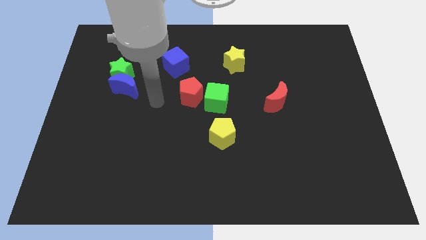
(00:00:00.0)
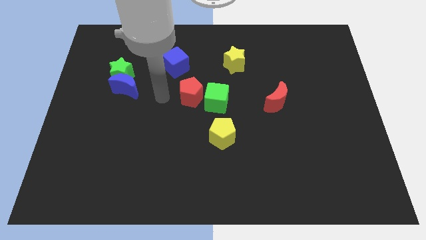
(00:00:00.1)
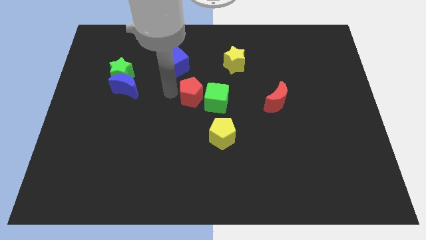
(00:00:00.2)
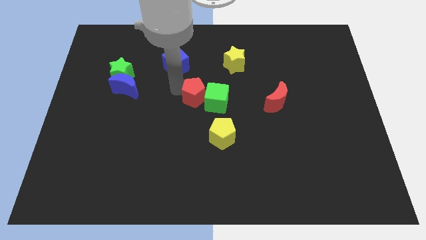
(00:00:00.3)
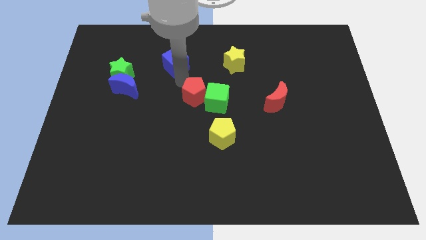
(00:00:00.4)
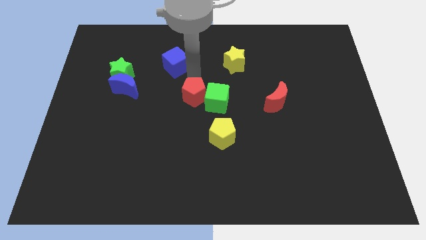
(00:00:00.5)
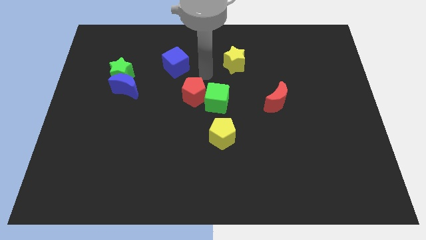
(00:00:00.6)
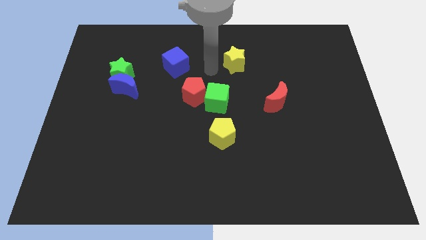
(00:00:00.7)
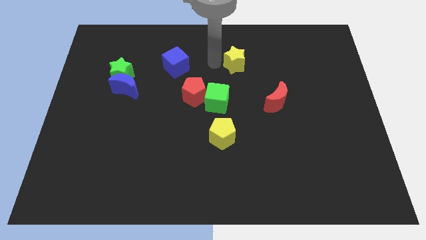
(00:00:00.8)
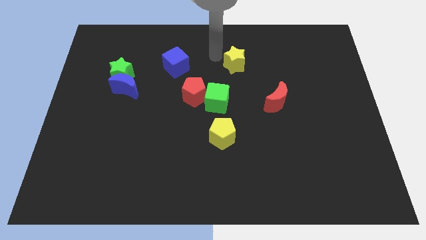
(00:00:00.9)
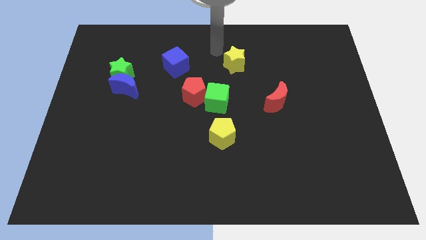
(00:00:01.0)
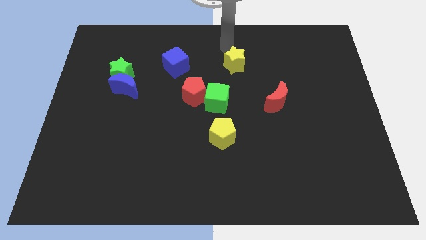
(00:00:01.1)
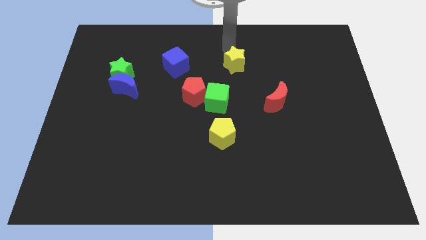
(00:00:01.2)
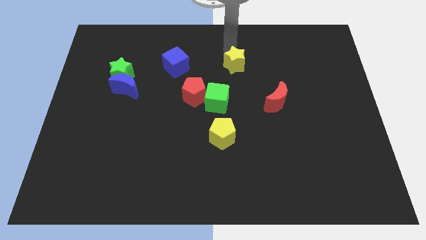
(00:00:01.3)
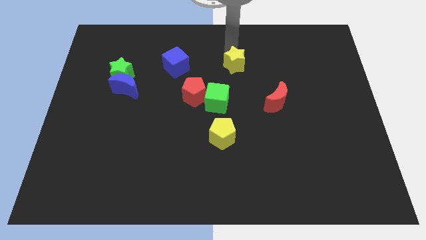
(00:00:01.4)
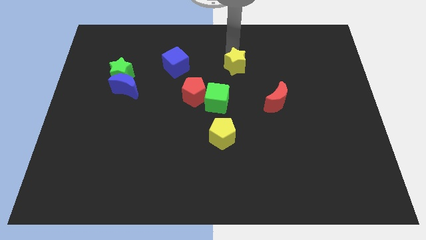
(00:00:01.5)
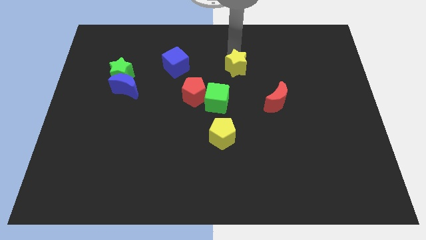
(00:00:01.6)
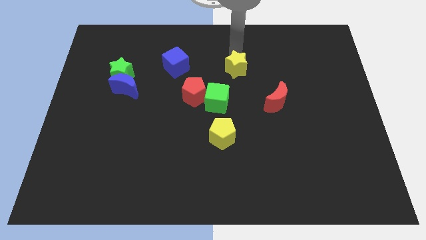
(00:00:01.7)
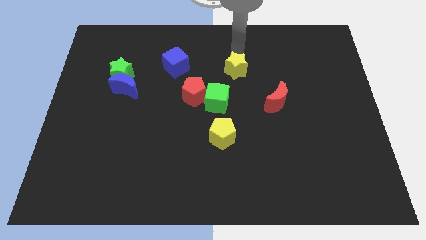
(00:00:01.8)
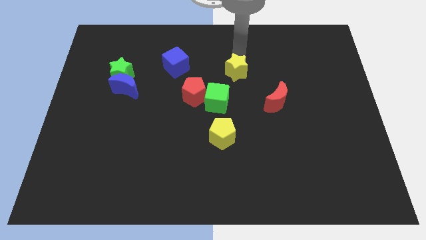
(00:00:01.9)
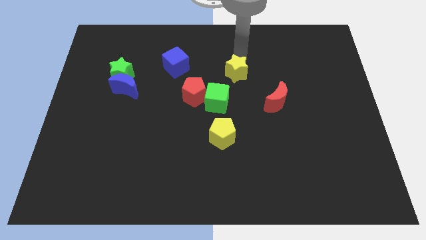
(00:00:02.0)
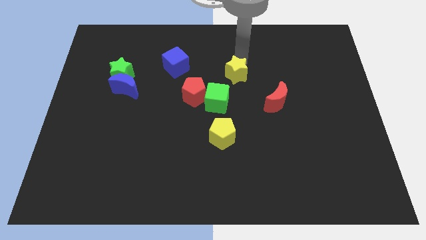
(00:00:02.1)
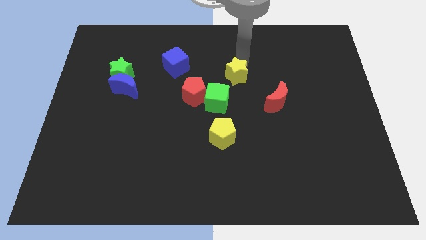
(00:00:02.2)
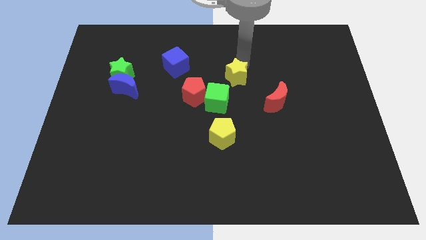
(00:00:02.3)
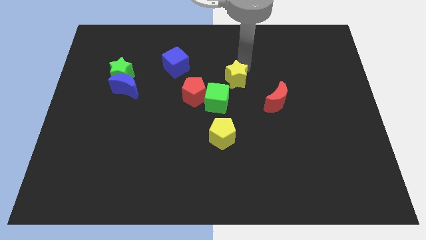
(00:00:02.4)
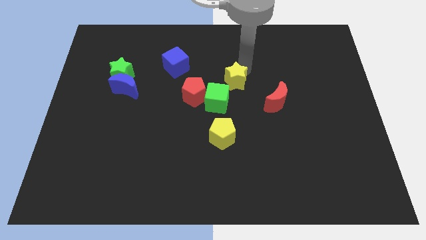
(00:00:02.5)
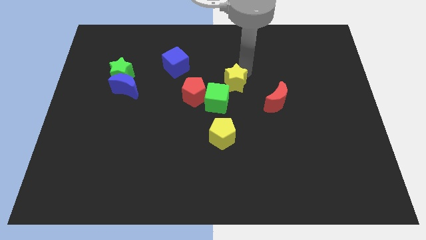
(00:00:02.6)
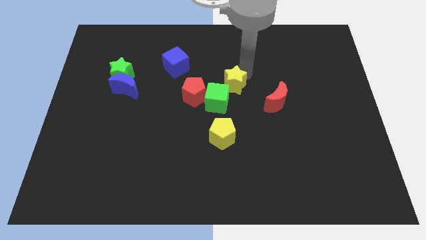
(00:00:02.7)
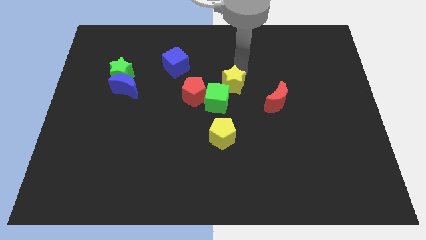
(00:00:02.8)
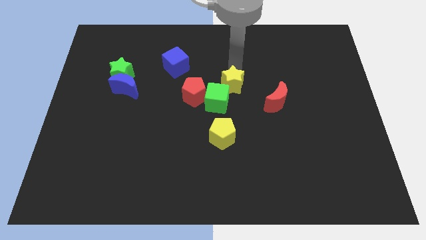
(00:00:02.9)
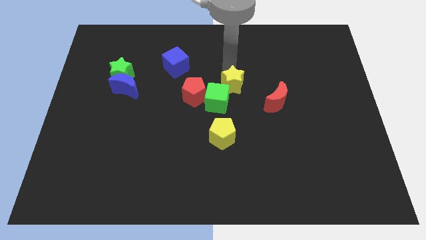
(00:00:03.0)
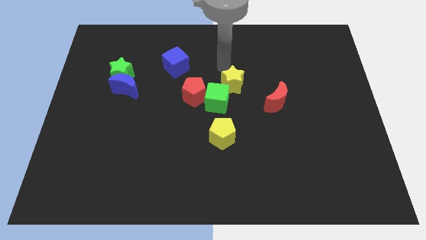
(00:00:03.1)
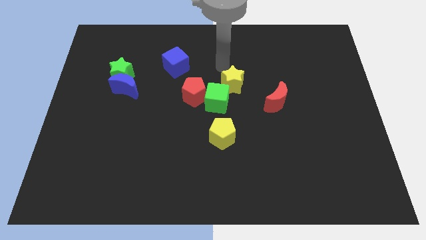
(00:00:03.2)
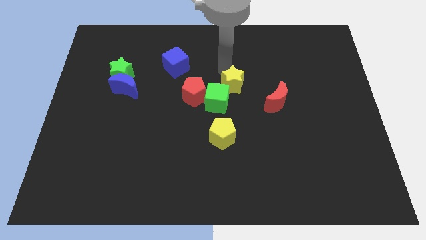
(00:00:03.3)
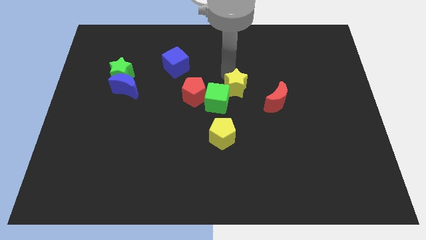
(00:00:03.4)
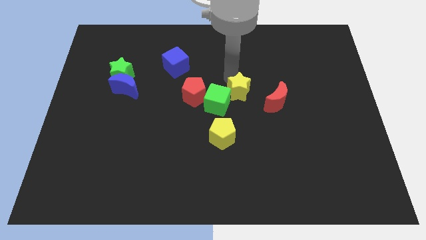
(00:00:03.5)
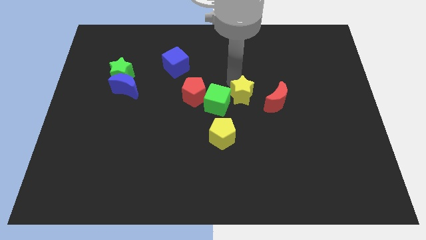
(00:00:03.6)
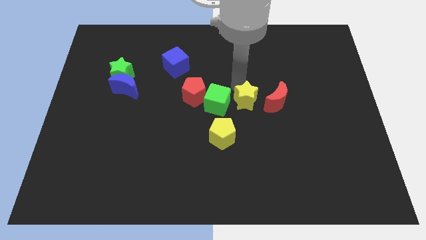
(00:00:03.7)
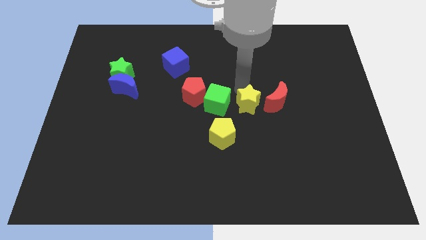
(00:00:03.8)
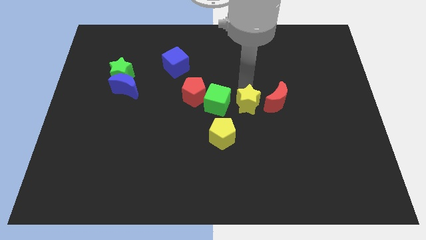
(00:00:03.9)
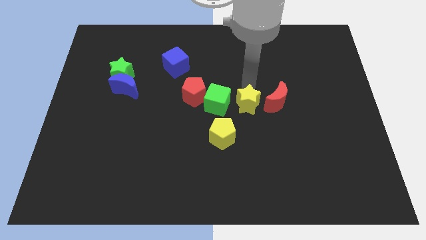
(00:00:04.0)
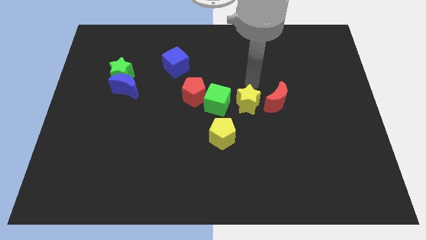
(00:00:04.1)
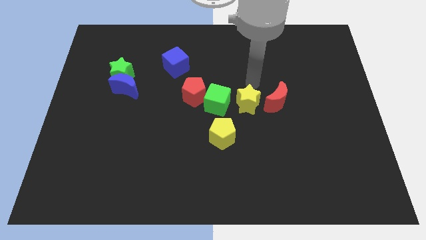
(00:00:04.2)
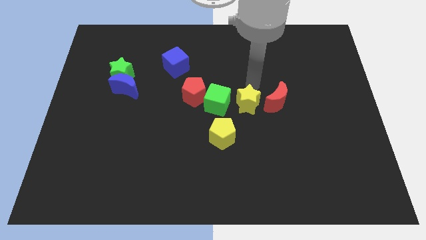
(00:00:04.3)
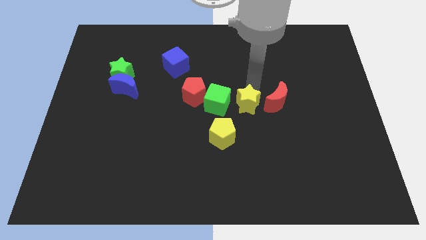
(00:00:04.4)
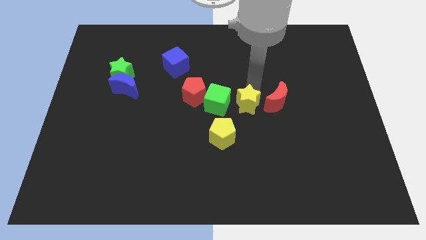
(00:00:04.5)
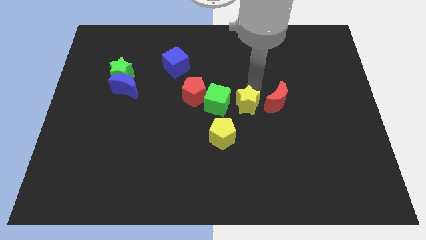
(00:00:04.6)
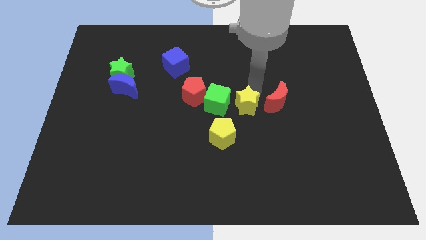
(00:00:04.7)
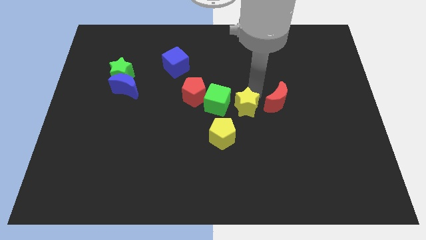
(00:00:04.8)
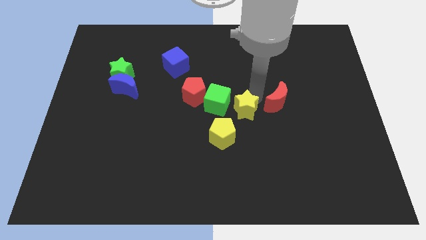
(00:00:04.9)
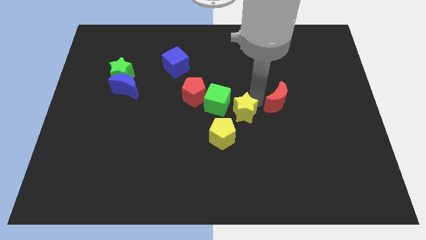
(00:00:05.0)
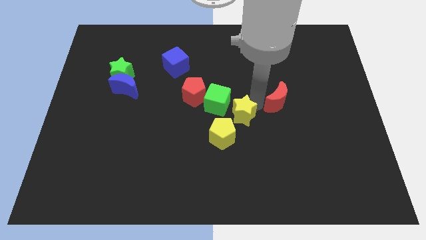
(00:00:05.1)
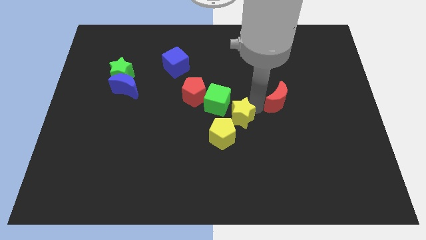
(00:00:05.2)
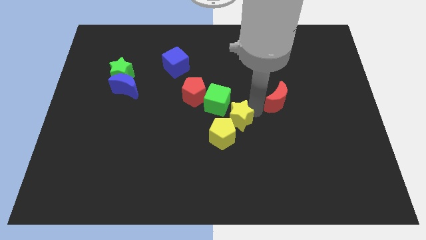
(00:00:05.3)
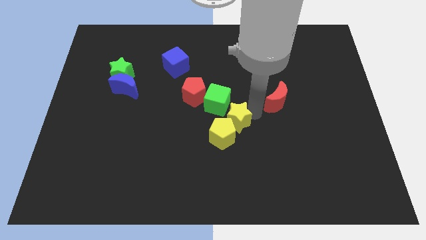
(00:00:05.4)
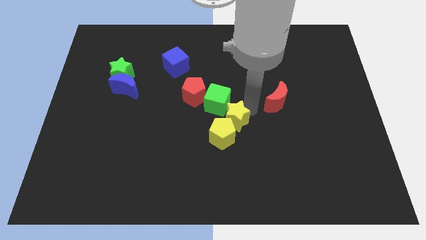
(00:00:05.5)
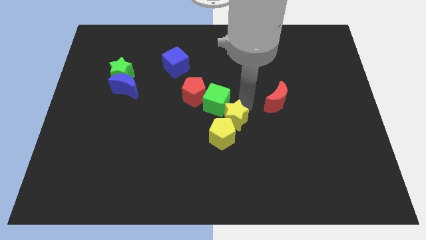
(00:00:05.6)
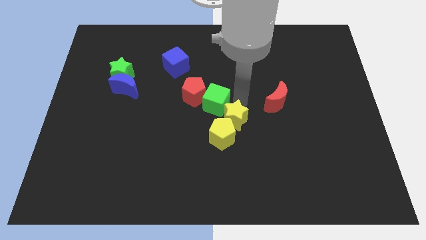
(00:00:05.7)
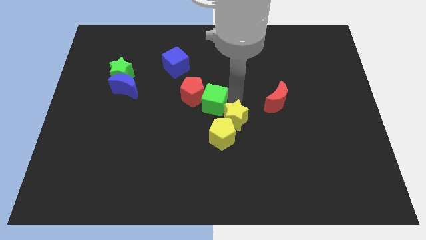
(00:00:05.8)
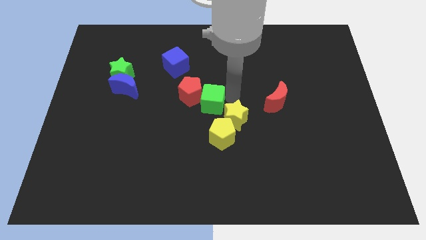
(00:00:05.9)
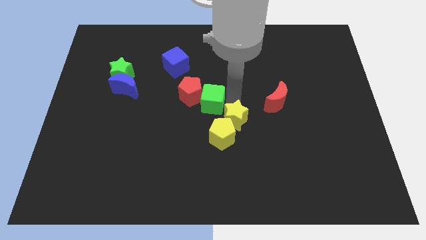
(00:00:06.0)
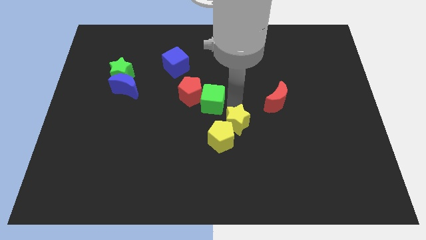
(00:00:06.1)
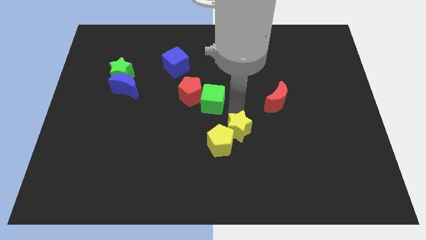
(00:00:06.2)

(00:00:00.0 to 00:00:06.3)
push the yellow star down

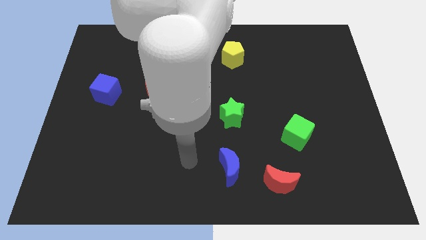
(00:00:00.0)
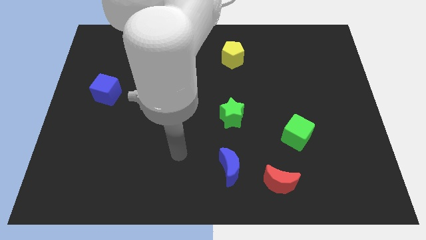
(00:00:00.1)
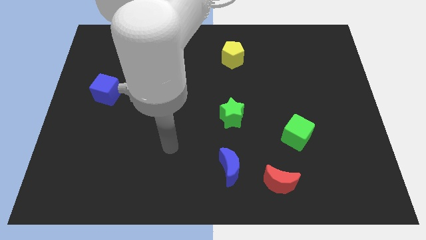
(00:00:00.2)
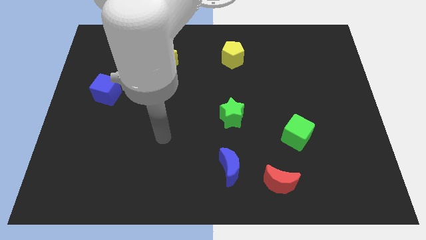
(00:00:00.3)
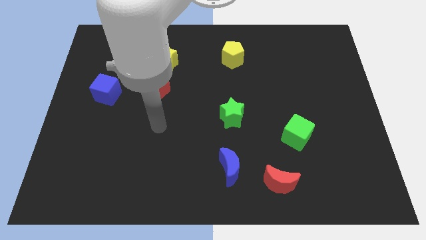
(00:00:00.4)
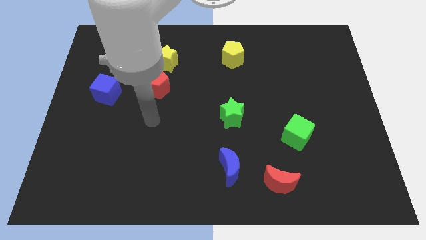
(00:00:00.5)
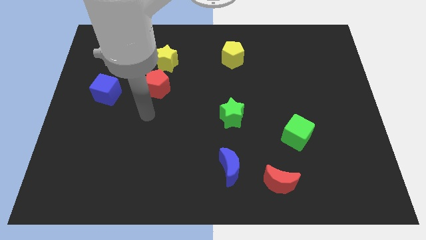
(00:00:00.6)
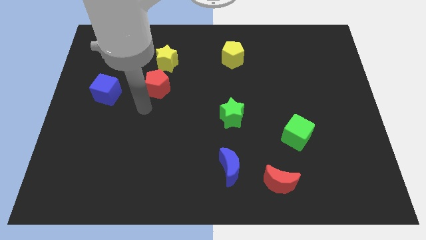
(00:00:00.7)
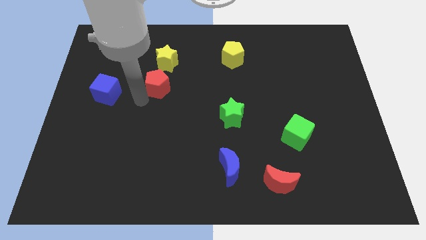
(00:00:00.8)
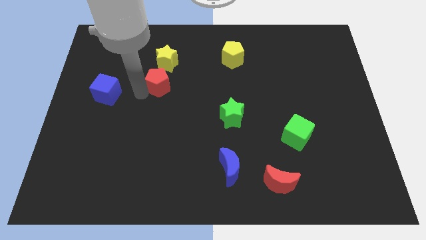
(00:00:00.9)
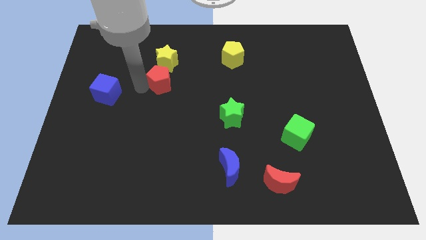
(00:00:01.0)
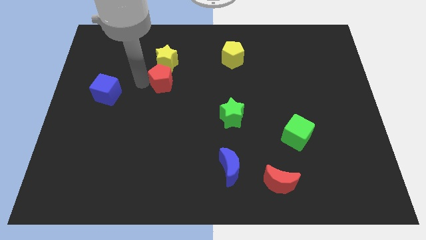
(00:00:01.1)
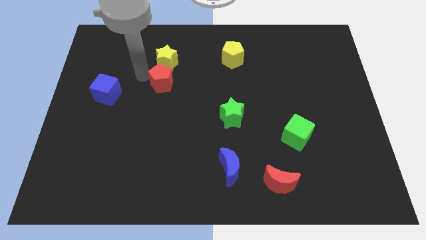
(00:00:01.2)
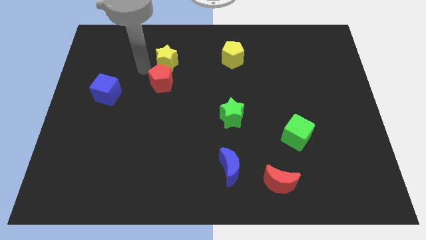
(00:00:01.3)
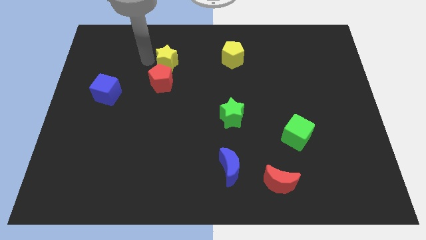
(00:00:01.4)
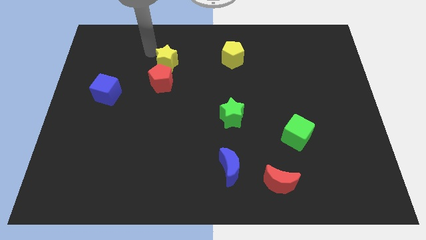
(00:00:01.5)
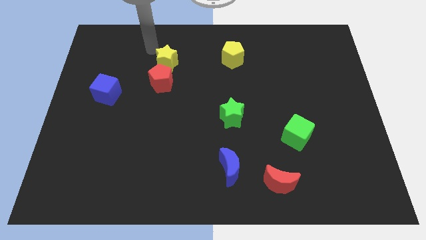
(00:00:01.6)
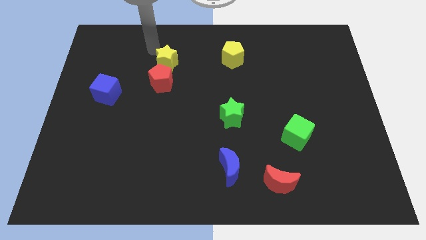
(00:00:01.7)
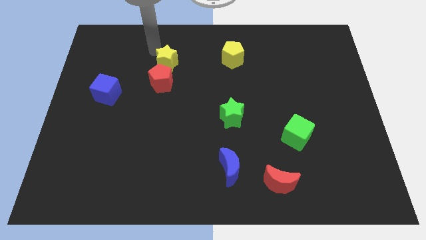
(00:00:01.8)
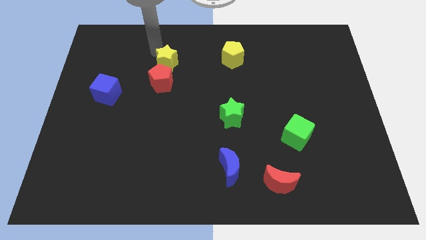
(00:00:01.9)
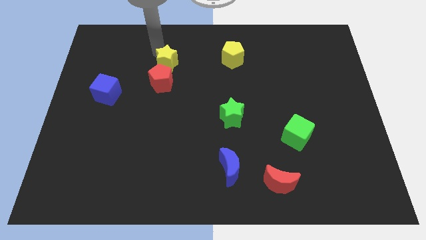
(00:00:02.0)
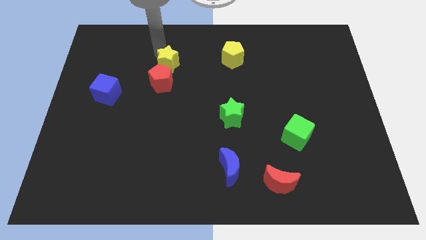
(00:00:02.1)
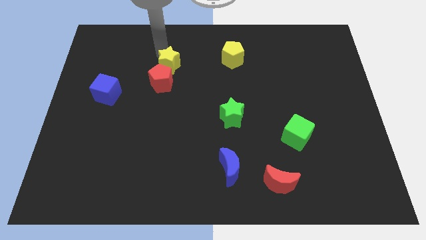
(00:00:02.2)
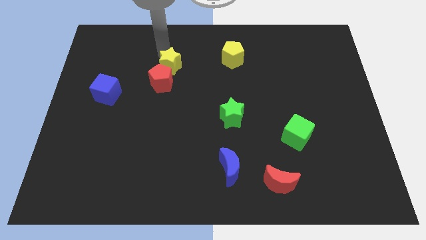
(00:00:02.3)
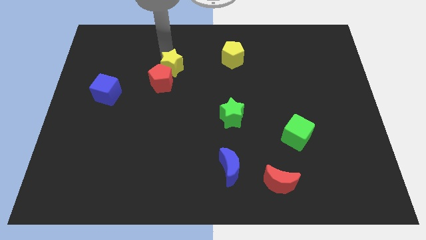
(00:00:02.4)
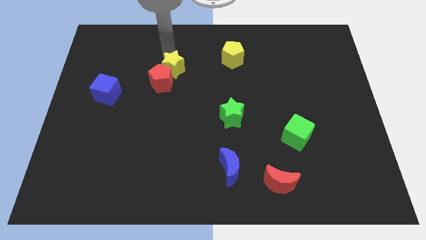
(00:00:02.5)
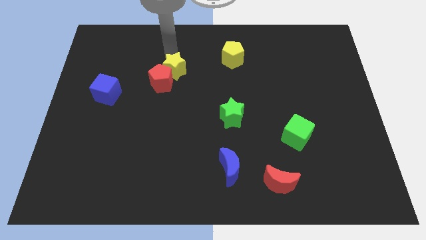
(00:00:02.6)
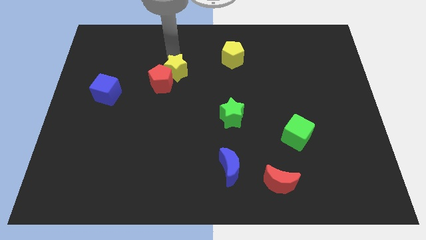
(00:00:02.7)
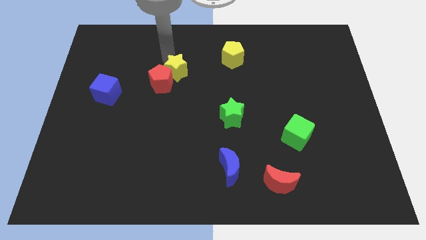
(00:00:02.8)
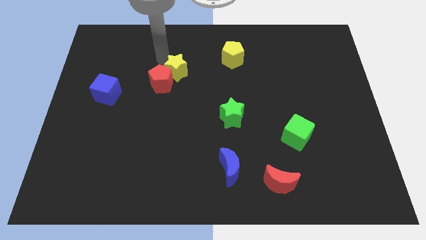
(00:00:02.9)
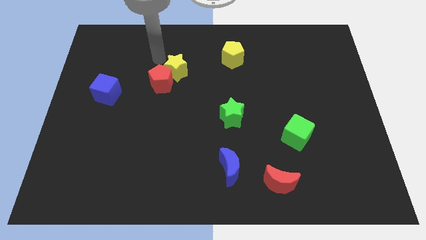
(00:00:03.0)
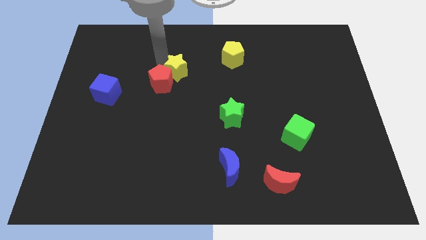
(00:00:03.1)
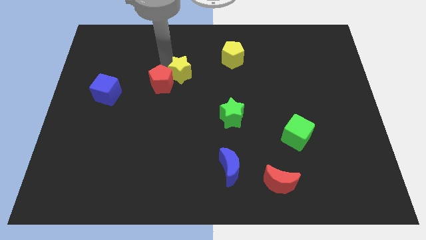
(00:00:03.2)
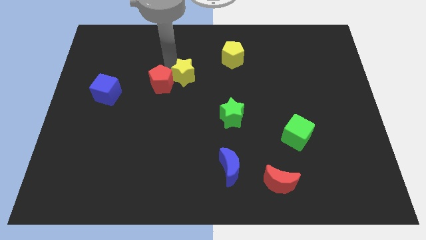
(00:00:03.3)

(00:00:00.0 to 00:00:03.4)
push the yellow star a bit diagonally down and to the right
